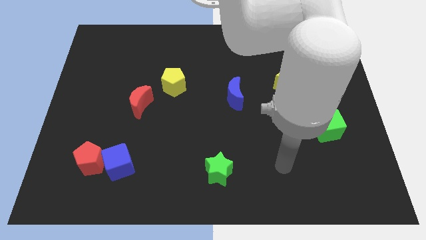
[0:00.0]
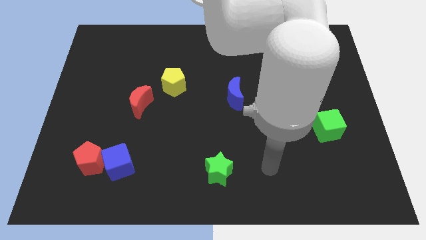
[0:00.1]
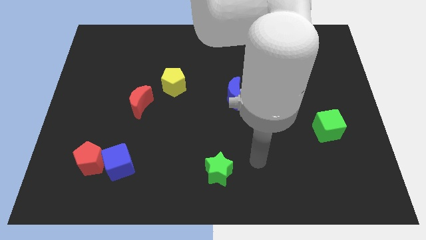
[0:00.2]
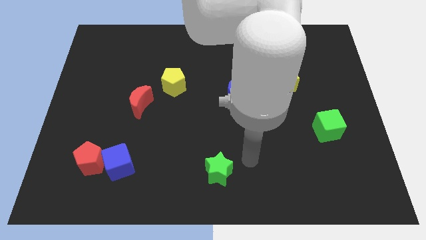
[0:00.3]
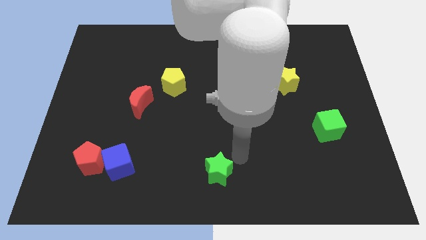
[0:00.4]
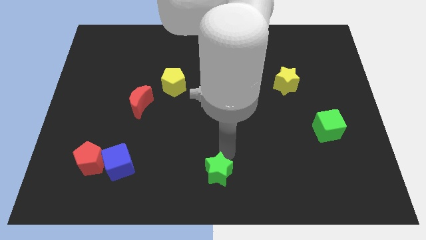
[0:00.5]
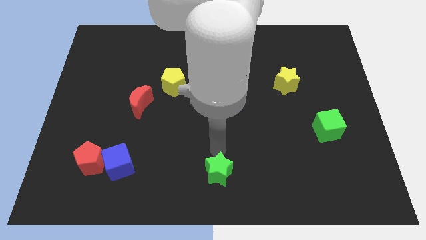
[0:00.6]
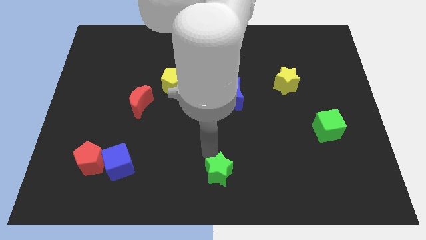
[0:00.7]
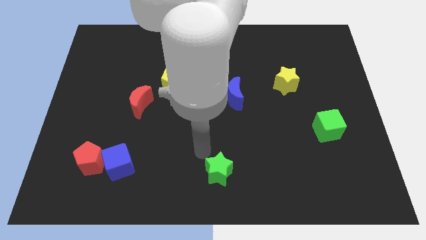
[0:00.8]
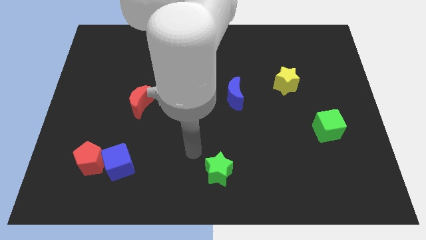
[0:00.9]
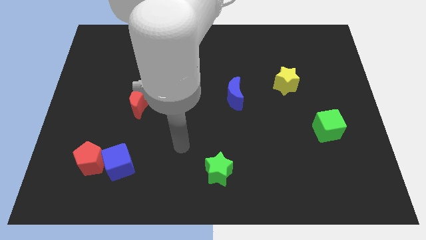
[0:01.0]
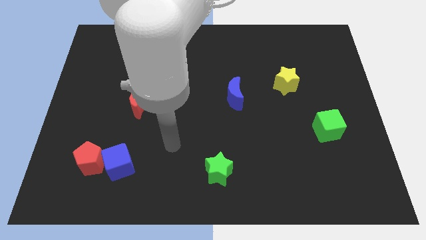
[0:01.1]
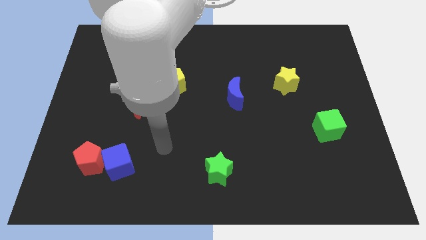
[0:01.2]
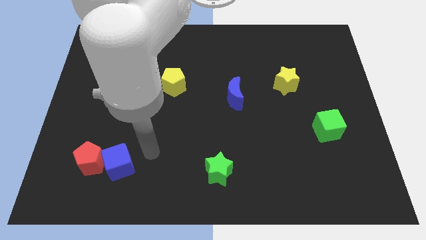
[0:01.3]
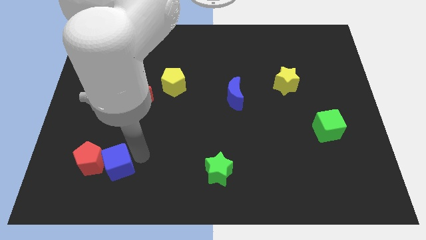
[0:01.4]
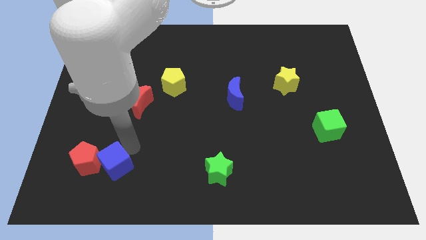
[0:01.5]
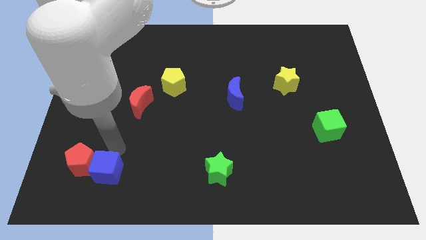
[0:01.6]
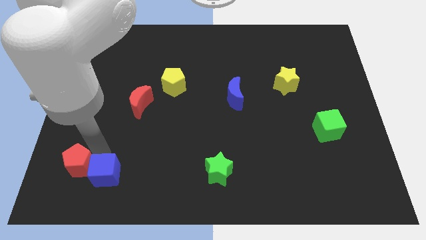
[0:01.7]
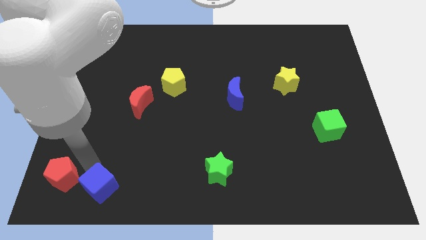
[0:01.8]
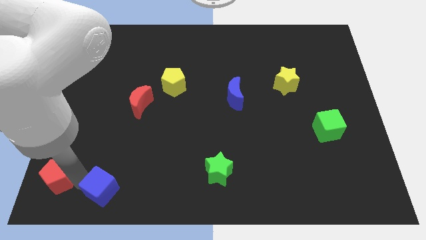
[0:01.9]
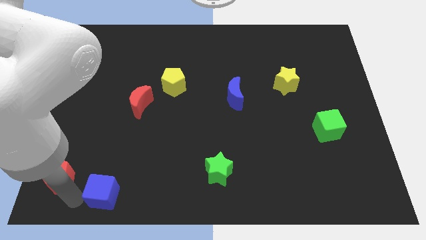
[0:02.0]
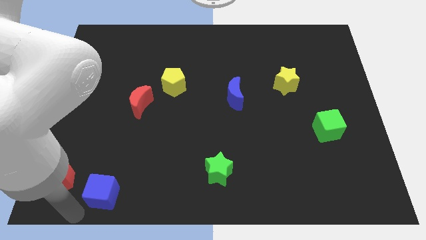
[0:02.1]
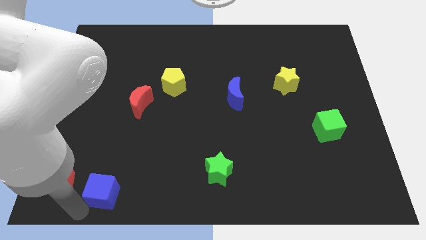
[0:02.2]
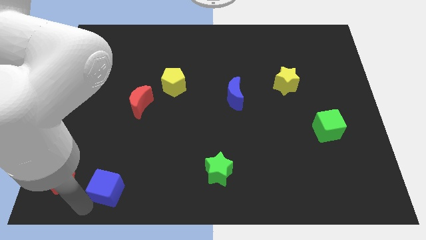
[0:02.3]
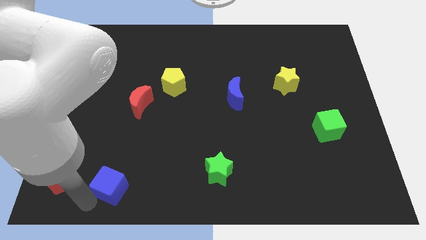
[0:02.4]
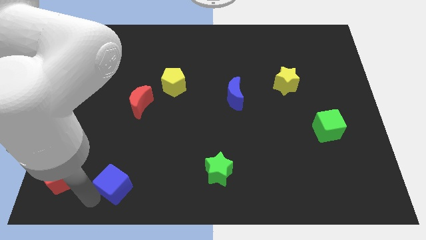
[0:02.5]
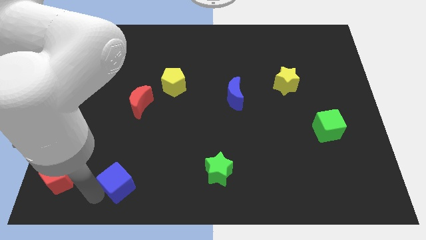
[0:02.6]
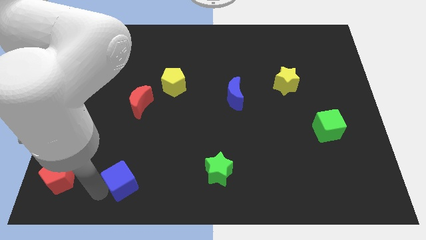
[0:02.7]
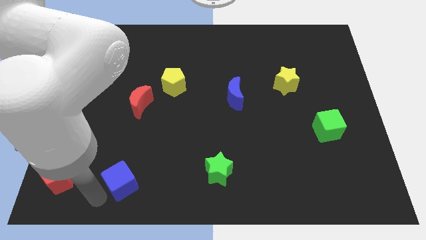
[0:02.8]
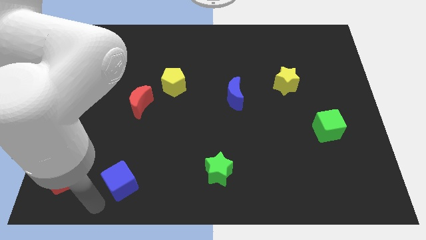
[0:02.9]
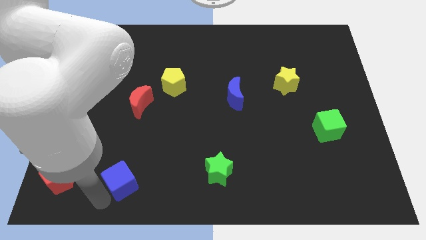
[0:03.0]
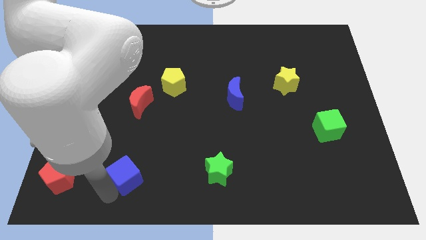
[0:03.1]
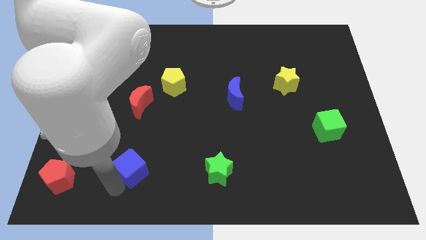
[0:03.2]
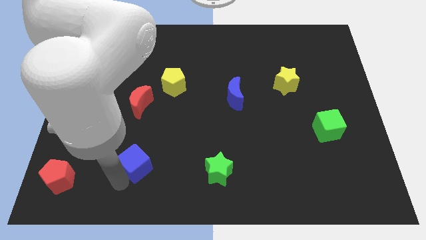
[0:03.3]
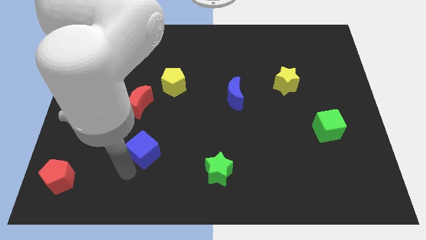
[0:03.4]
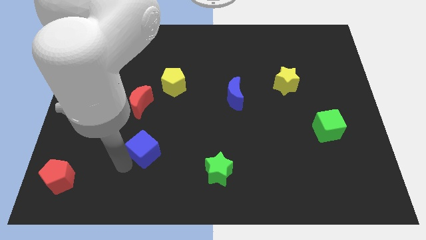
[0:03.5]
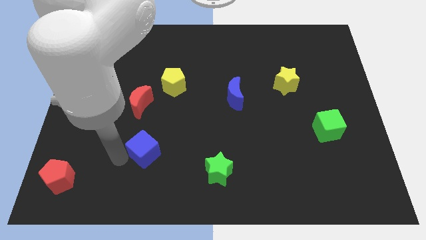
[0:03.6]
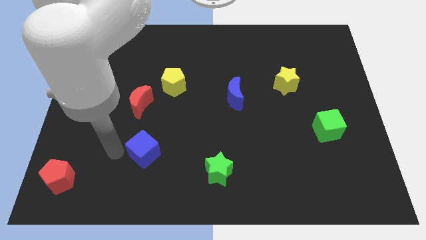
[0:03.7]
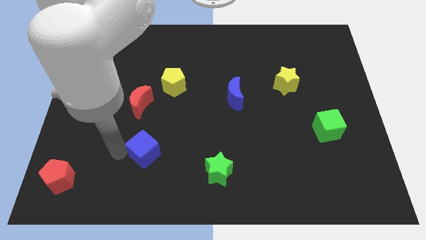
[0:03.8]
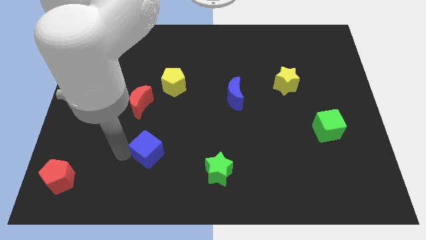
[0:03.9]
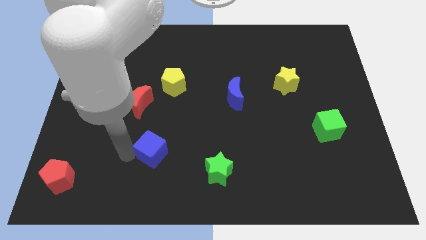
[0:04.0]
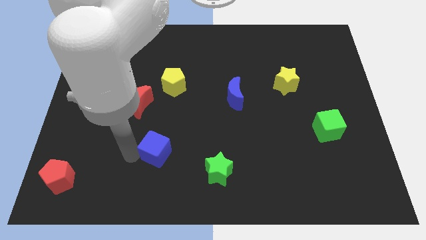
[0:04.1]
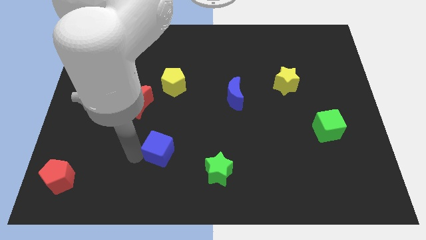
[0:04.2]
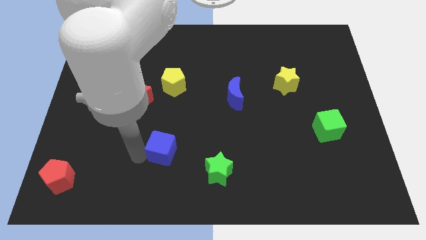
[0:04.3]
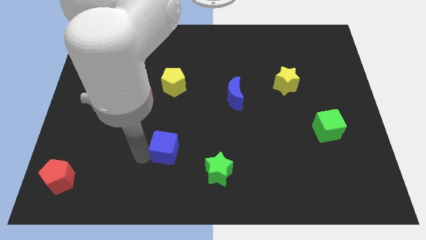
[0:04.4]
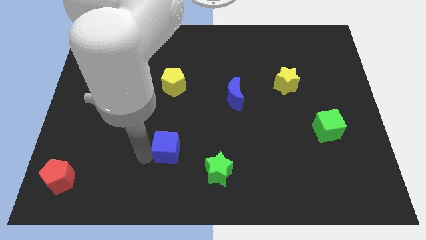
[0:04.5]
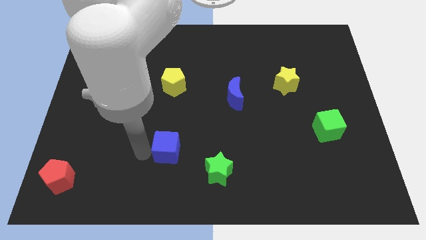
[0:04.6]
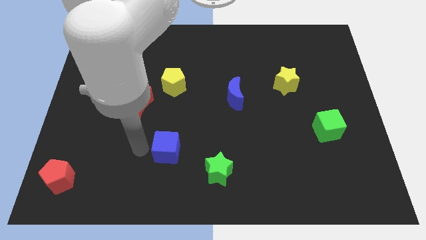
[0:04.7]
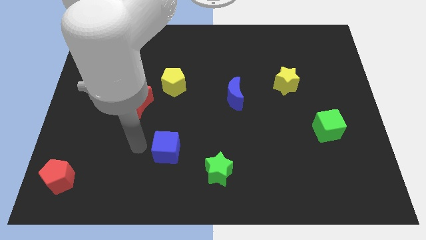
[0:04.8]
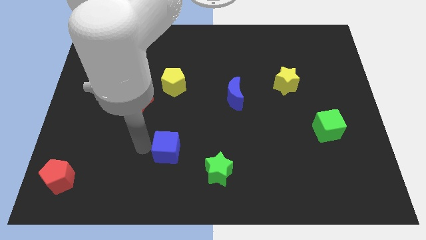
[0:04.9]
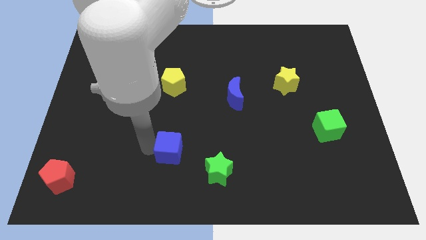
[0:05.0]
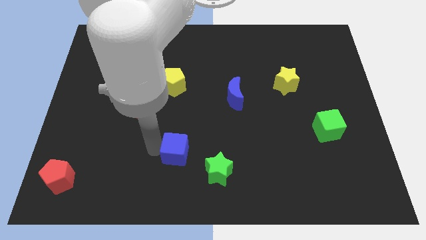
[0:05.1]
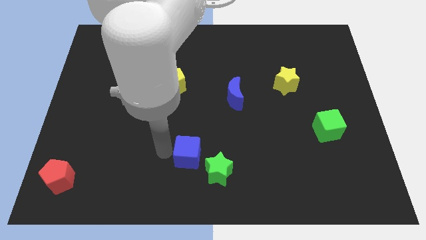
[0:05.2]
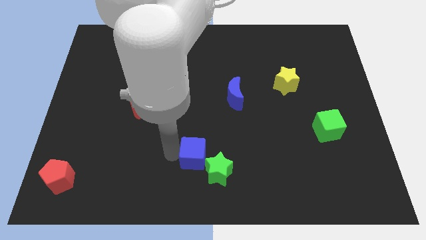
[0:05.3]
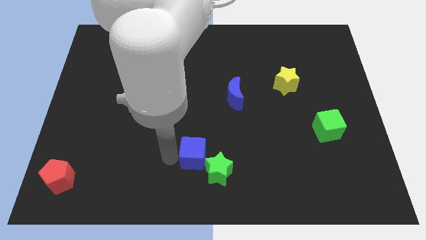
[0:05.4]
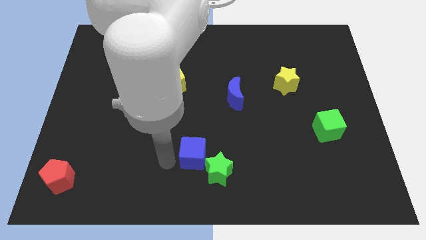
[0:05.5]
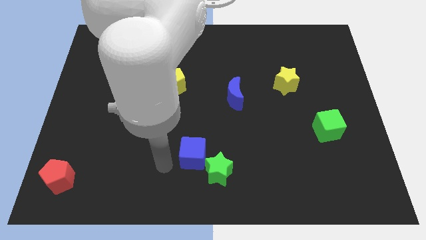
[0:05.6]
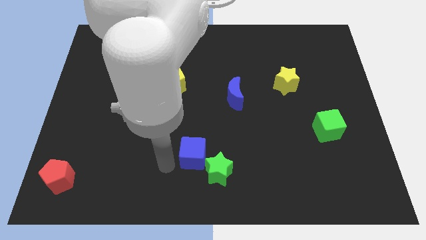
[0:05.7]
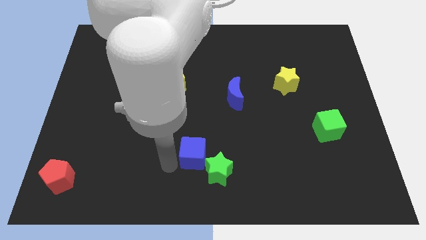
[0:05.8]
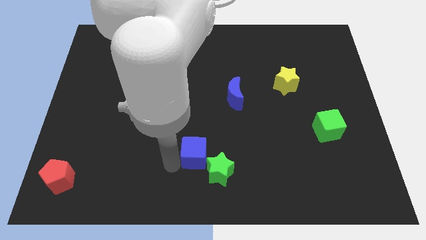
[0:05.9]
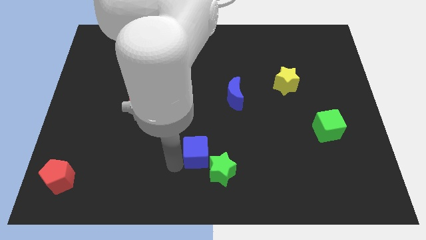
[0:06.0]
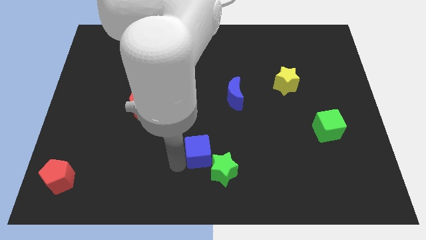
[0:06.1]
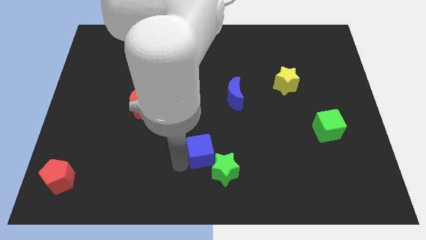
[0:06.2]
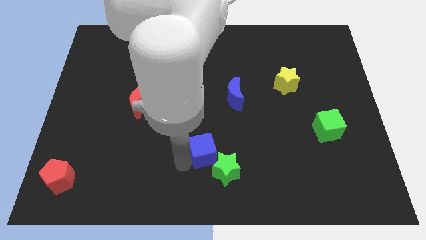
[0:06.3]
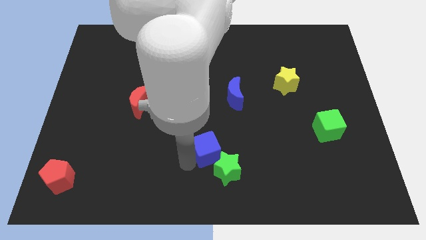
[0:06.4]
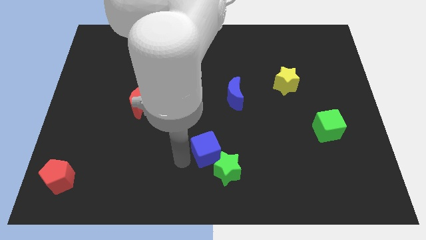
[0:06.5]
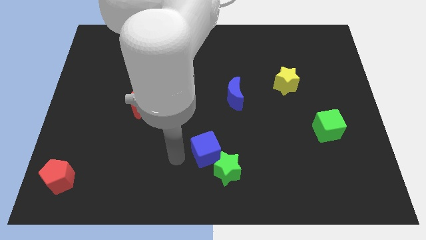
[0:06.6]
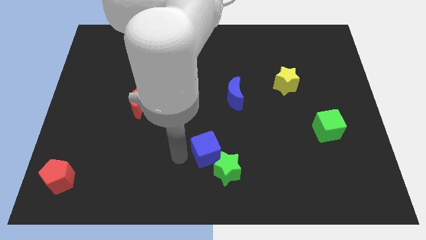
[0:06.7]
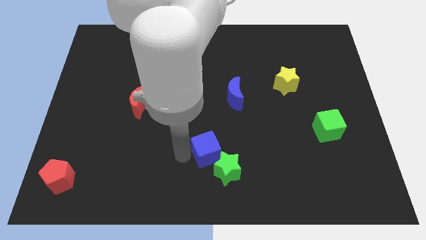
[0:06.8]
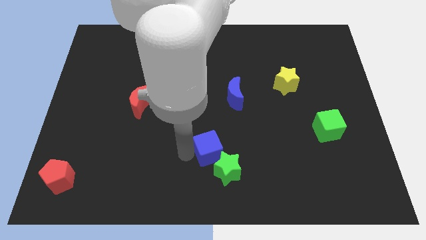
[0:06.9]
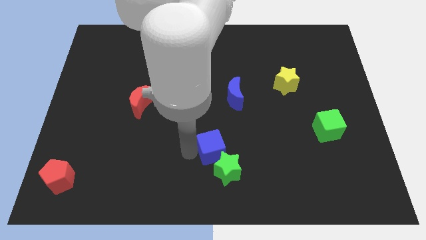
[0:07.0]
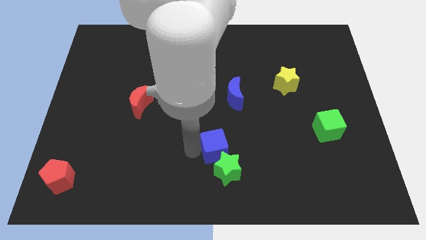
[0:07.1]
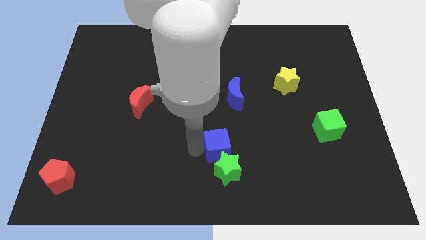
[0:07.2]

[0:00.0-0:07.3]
push the blue cube to the right

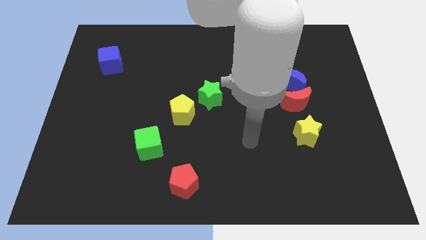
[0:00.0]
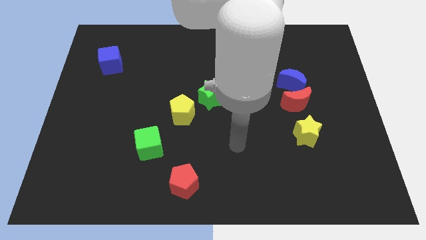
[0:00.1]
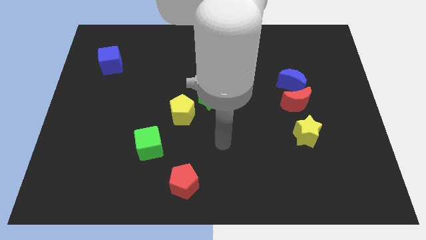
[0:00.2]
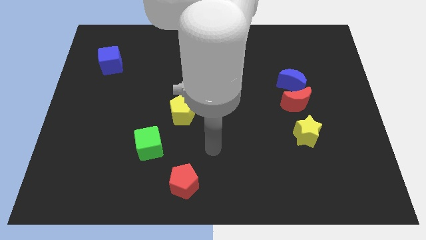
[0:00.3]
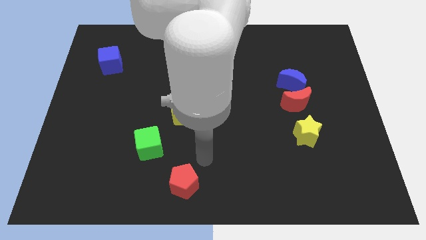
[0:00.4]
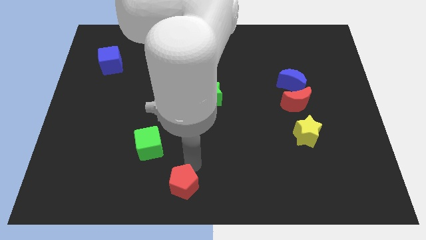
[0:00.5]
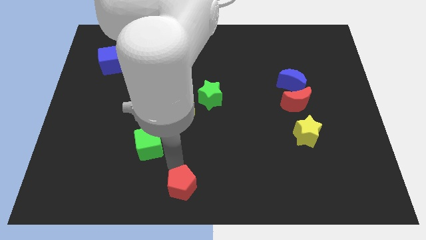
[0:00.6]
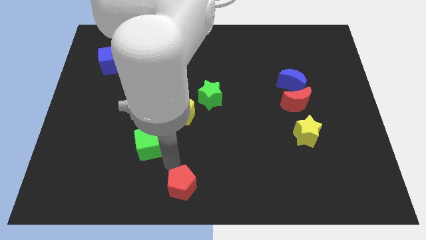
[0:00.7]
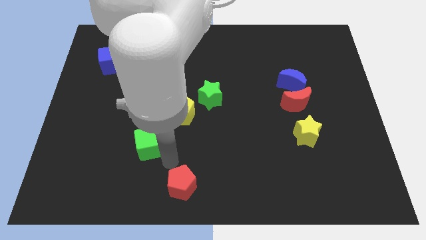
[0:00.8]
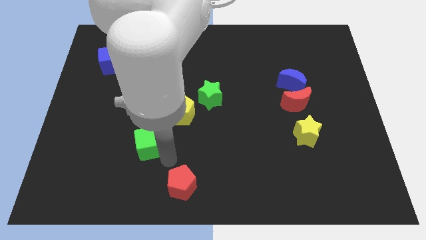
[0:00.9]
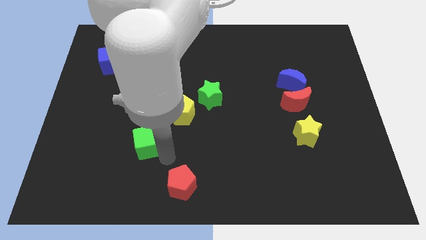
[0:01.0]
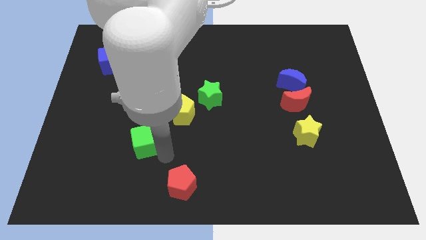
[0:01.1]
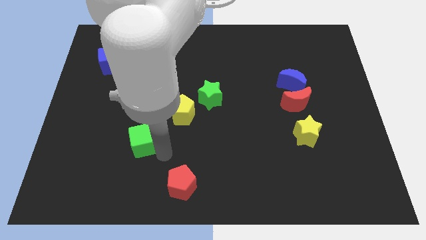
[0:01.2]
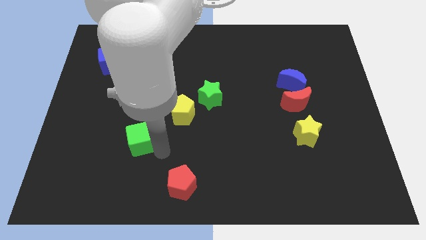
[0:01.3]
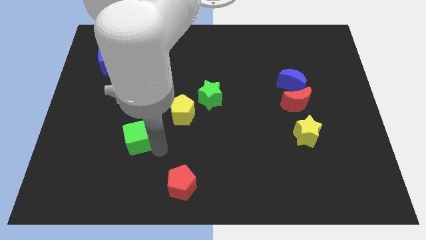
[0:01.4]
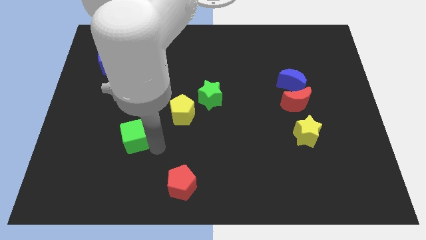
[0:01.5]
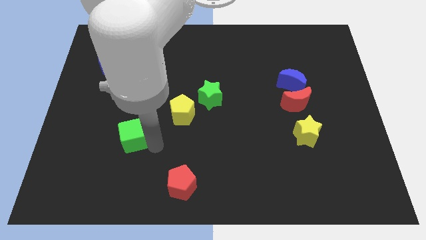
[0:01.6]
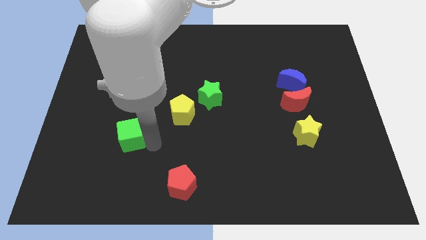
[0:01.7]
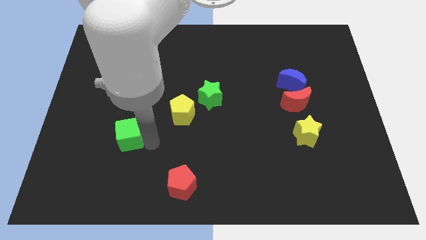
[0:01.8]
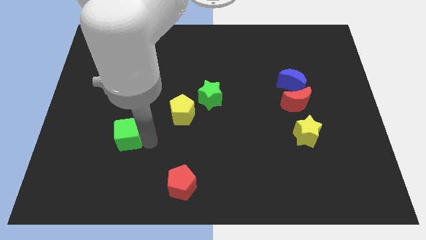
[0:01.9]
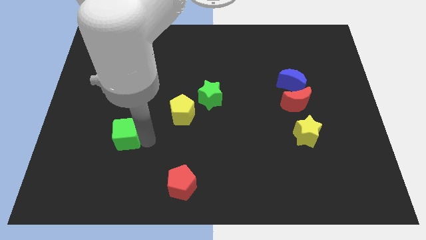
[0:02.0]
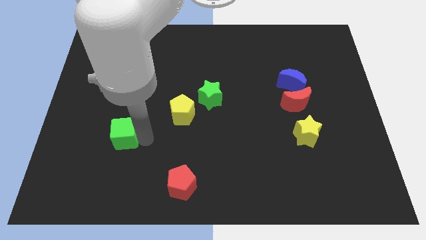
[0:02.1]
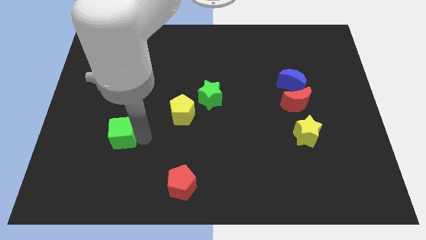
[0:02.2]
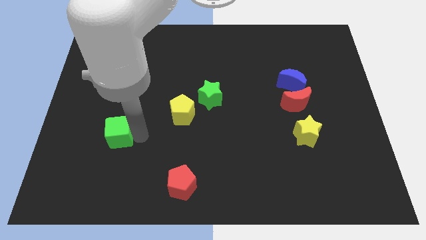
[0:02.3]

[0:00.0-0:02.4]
slightly push the green cube up and then to the left
